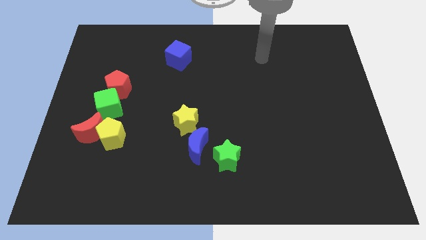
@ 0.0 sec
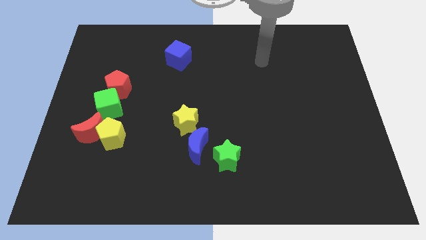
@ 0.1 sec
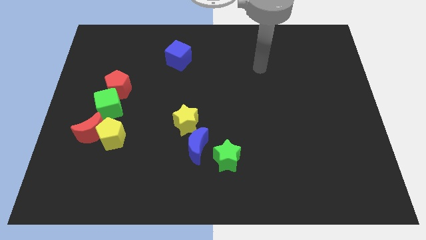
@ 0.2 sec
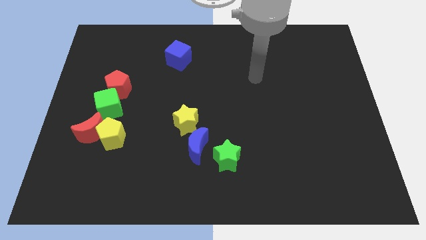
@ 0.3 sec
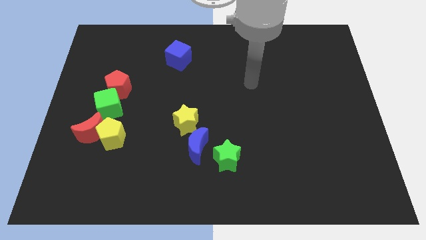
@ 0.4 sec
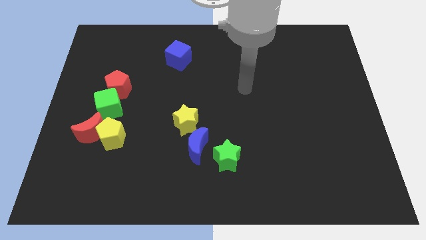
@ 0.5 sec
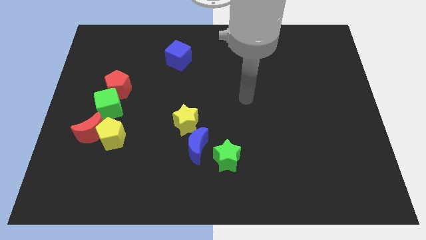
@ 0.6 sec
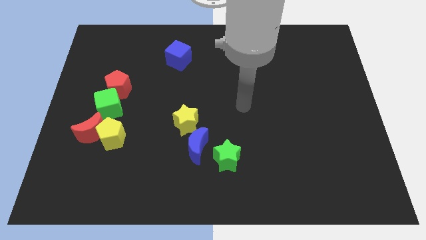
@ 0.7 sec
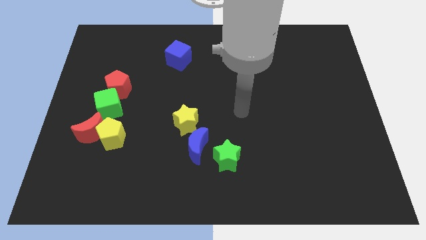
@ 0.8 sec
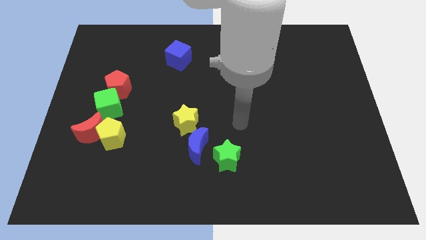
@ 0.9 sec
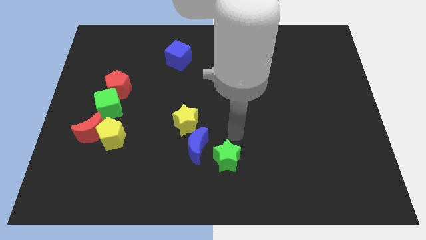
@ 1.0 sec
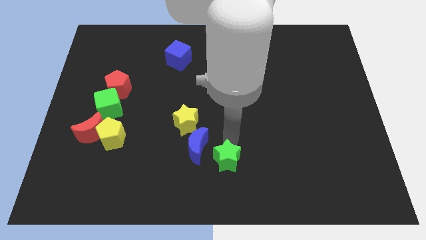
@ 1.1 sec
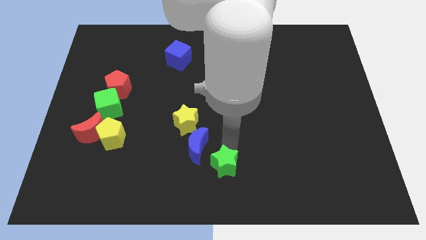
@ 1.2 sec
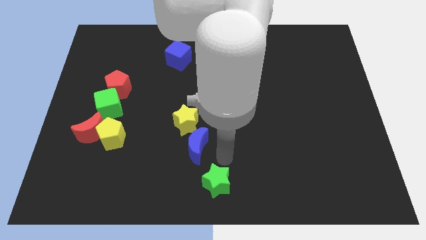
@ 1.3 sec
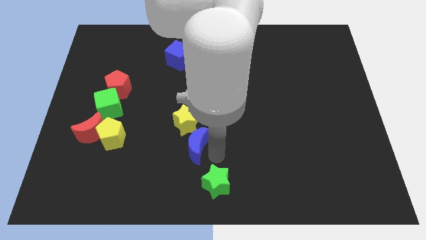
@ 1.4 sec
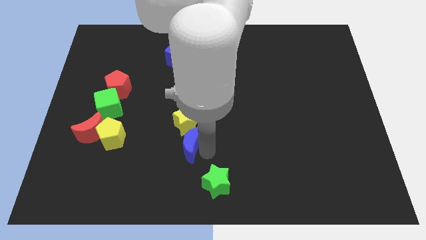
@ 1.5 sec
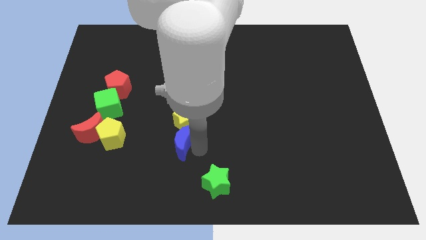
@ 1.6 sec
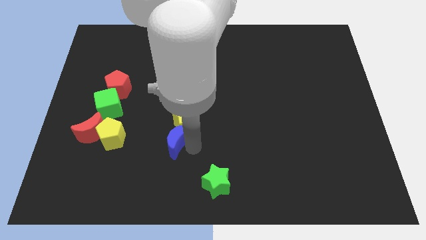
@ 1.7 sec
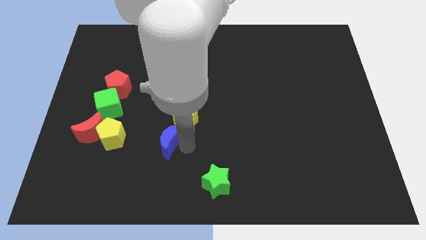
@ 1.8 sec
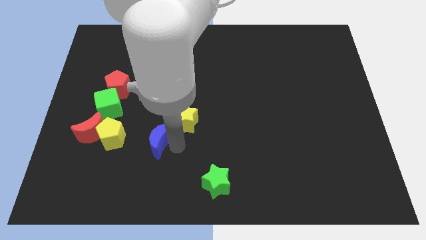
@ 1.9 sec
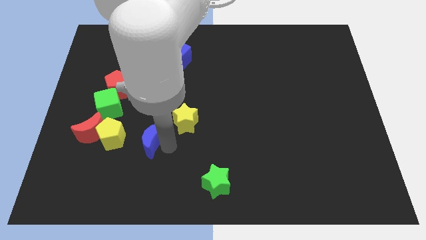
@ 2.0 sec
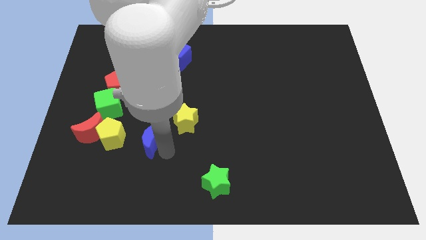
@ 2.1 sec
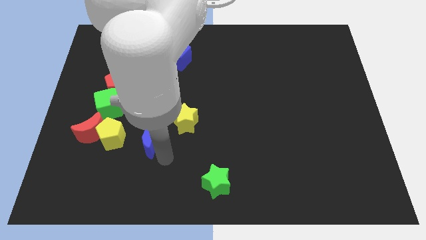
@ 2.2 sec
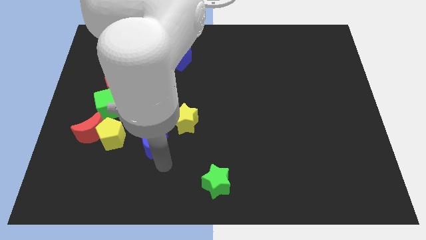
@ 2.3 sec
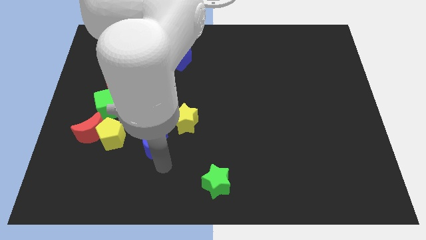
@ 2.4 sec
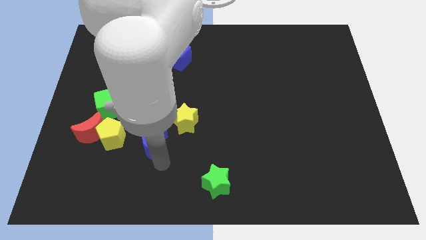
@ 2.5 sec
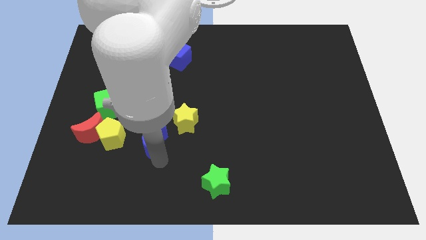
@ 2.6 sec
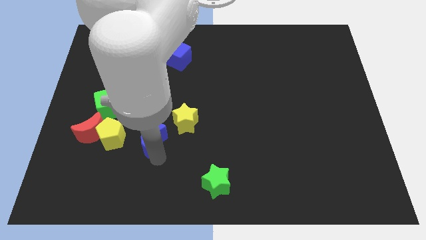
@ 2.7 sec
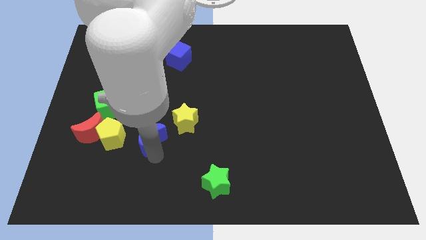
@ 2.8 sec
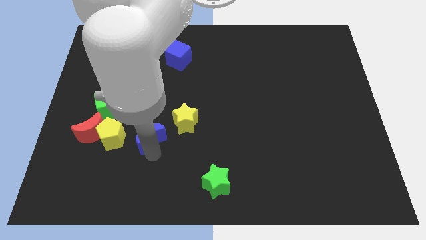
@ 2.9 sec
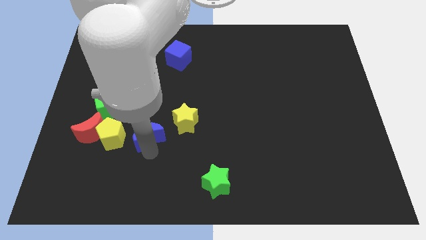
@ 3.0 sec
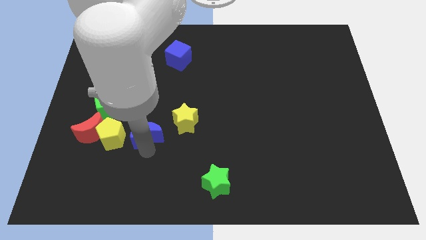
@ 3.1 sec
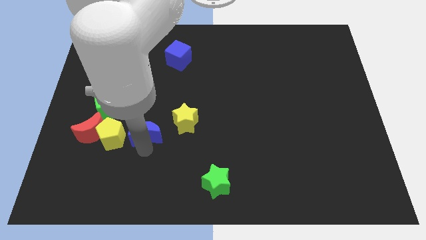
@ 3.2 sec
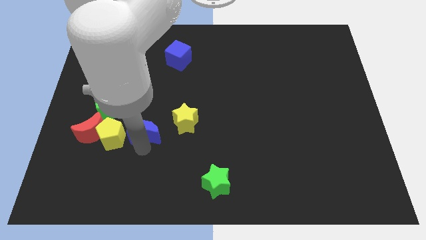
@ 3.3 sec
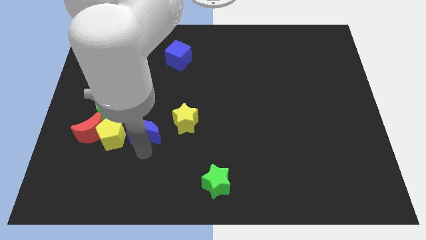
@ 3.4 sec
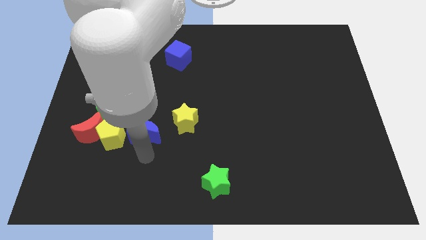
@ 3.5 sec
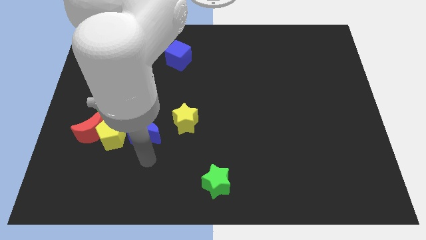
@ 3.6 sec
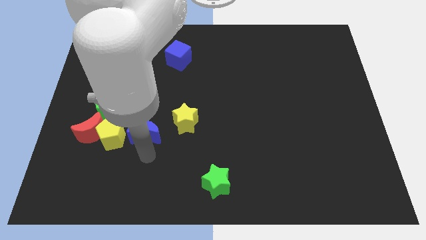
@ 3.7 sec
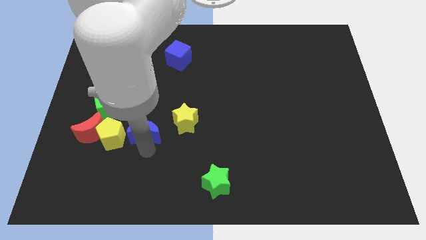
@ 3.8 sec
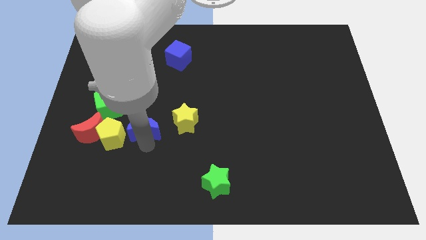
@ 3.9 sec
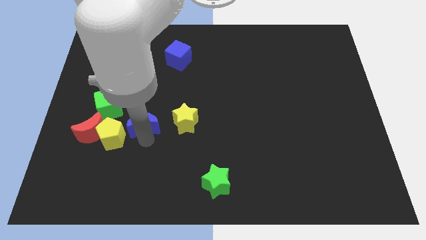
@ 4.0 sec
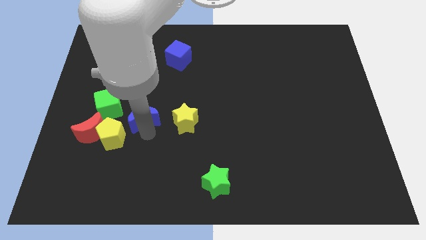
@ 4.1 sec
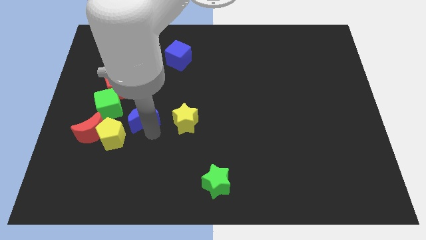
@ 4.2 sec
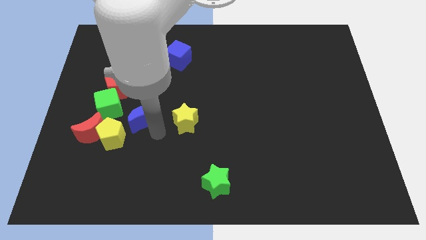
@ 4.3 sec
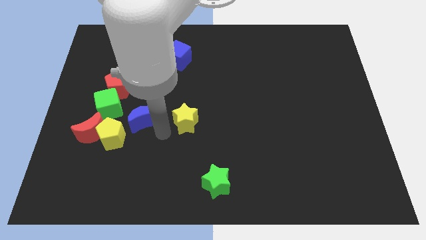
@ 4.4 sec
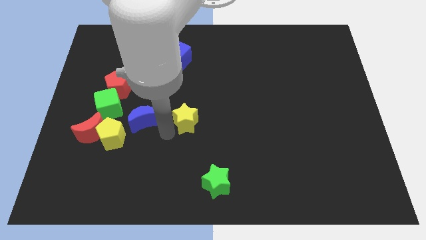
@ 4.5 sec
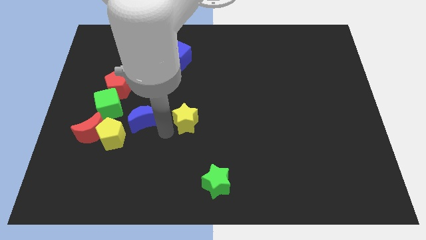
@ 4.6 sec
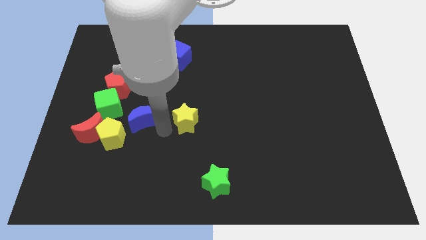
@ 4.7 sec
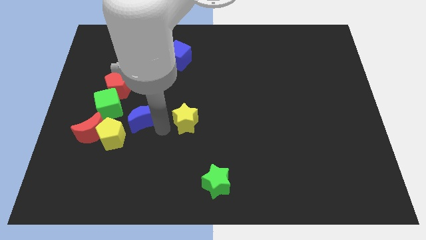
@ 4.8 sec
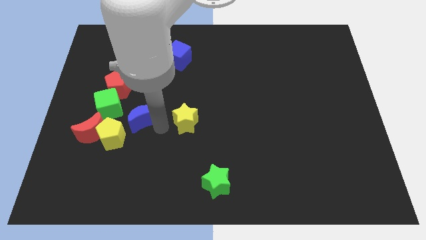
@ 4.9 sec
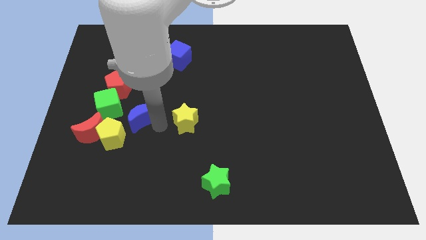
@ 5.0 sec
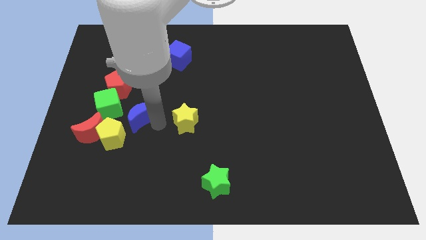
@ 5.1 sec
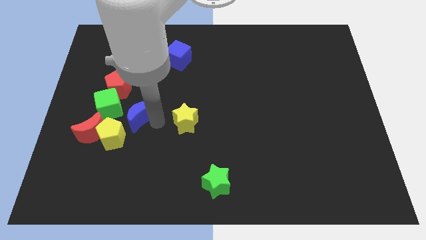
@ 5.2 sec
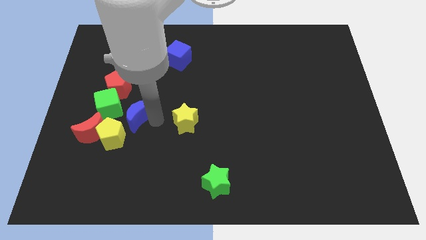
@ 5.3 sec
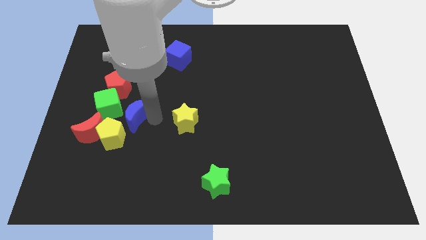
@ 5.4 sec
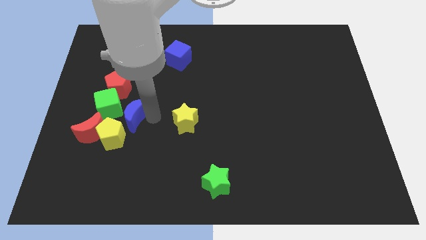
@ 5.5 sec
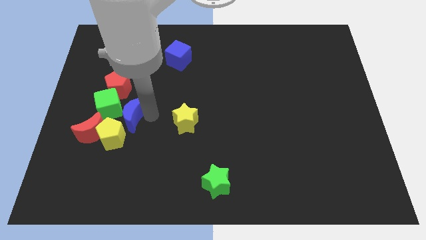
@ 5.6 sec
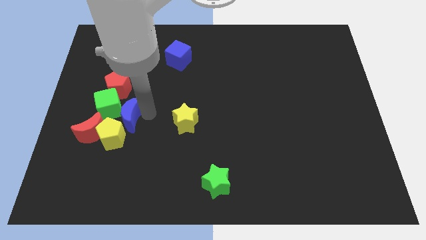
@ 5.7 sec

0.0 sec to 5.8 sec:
slide the blue moon towards the green cube

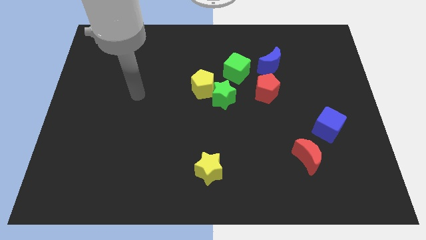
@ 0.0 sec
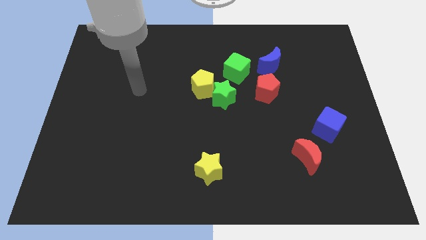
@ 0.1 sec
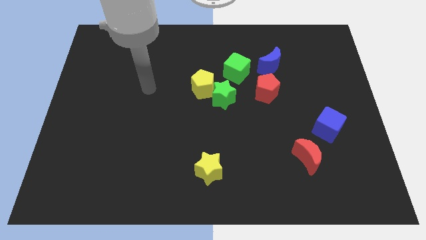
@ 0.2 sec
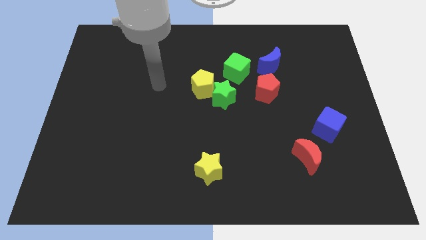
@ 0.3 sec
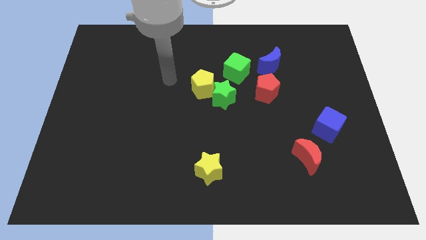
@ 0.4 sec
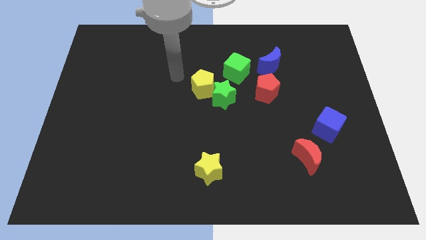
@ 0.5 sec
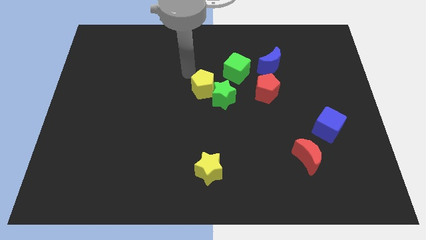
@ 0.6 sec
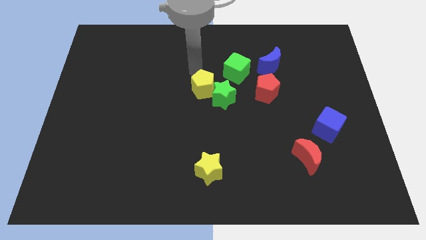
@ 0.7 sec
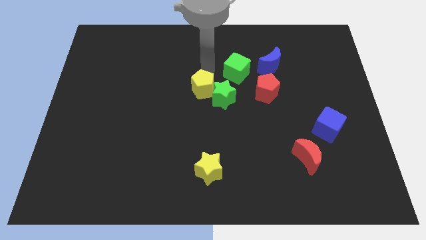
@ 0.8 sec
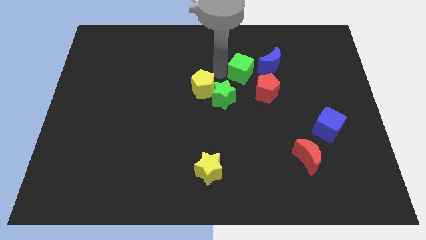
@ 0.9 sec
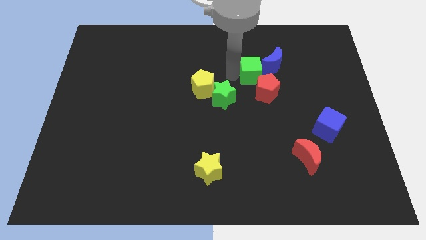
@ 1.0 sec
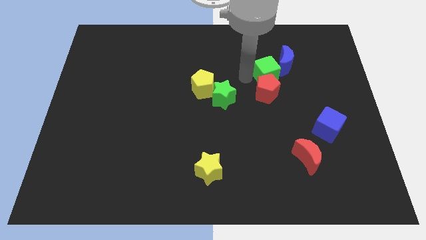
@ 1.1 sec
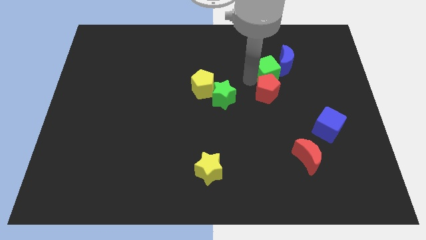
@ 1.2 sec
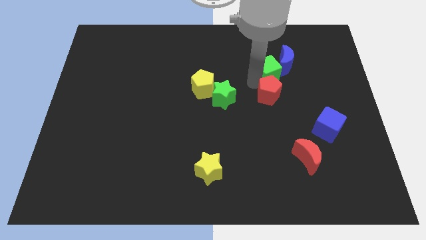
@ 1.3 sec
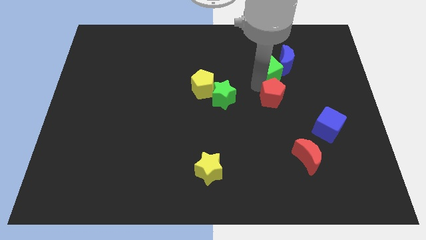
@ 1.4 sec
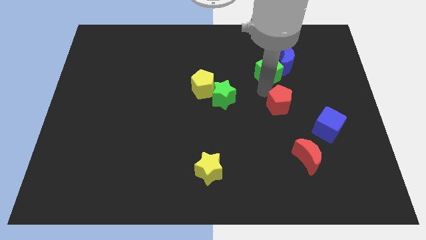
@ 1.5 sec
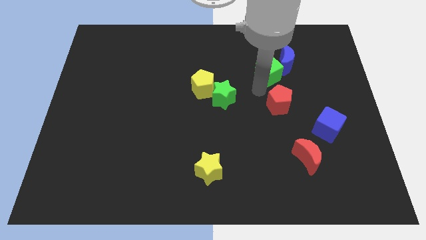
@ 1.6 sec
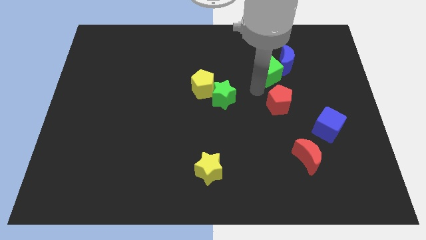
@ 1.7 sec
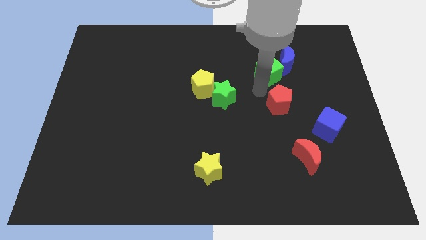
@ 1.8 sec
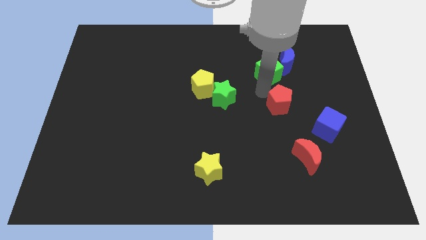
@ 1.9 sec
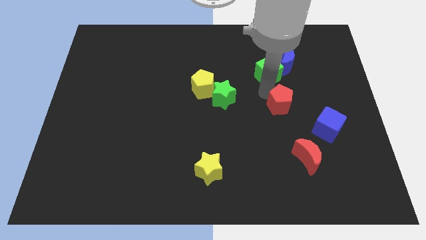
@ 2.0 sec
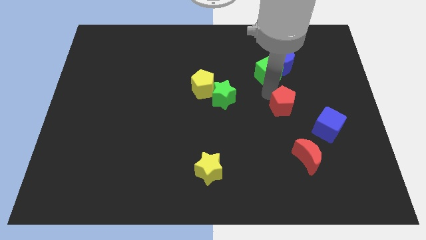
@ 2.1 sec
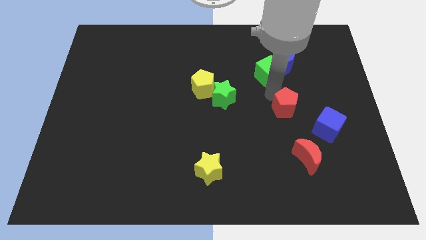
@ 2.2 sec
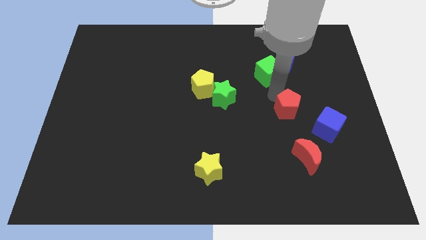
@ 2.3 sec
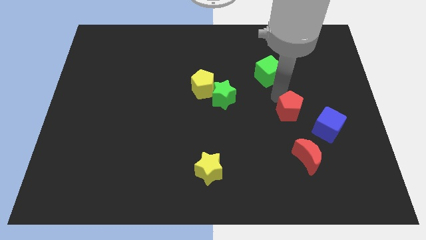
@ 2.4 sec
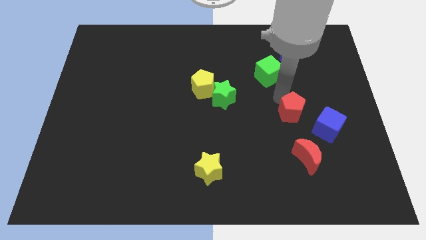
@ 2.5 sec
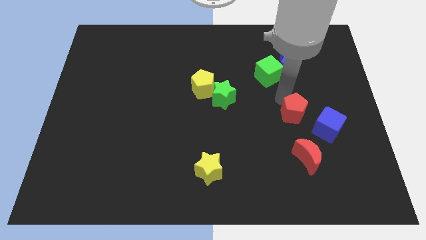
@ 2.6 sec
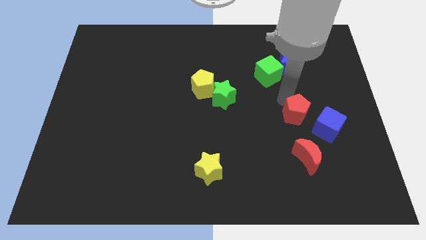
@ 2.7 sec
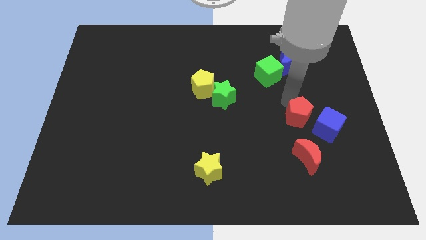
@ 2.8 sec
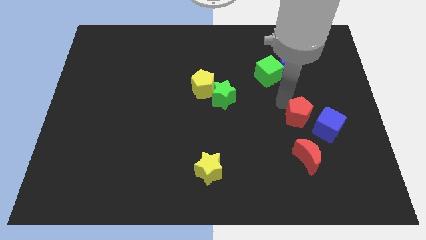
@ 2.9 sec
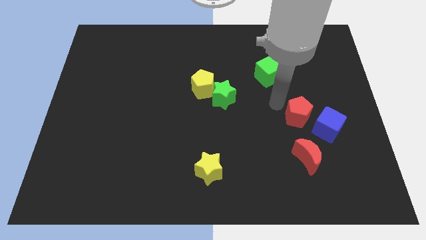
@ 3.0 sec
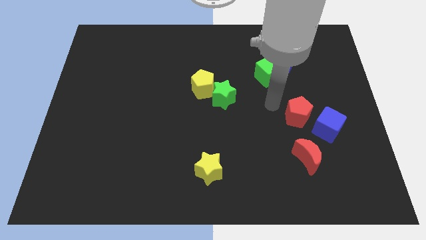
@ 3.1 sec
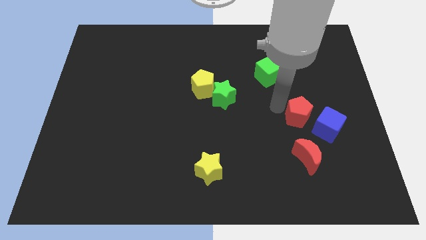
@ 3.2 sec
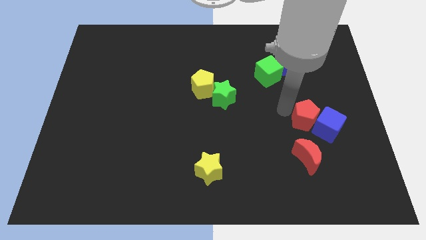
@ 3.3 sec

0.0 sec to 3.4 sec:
move the red pentagon to the blue cube
